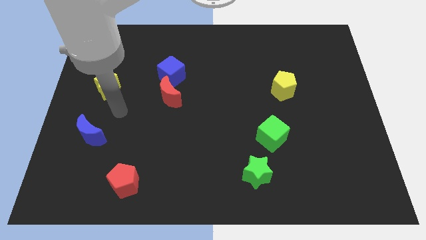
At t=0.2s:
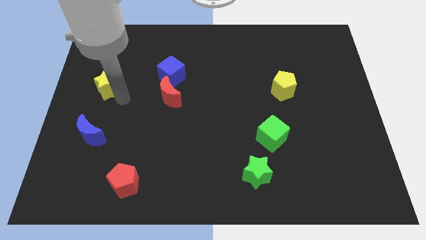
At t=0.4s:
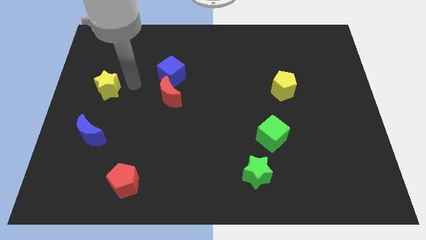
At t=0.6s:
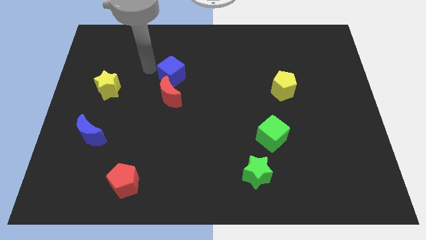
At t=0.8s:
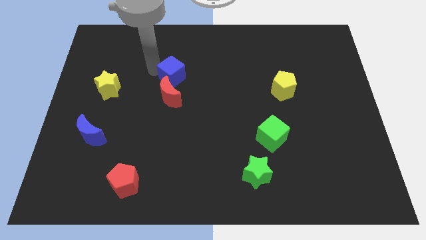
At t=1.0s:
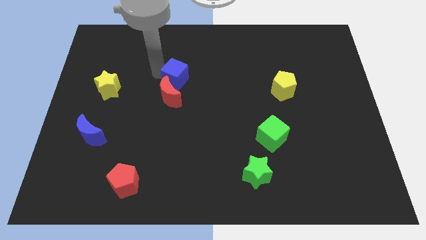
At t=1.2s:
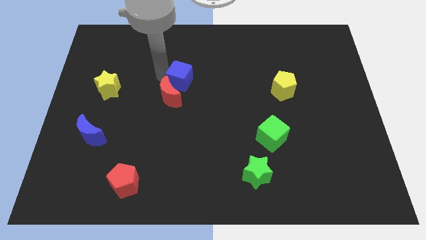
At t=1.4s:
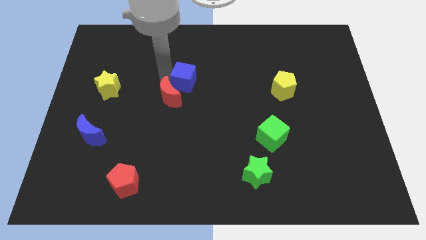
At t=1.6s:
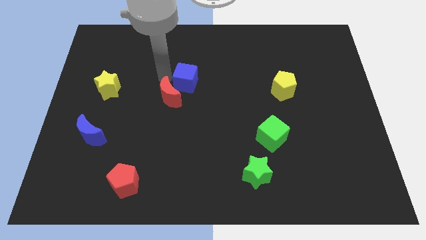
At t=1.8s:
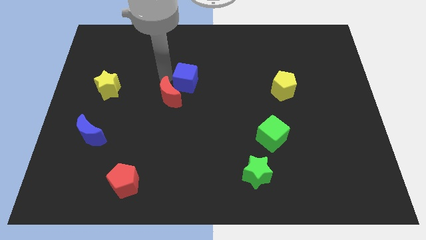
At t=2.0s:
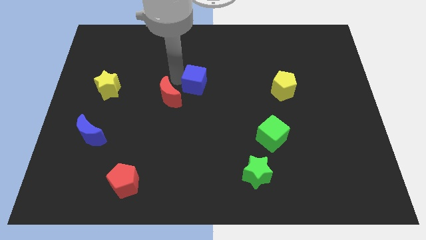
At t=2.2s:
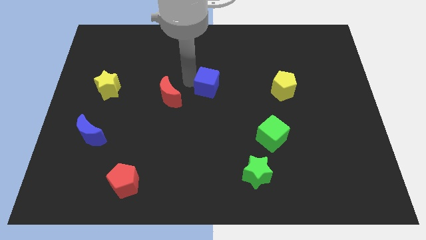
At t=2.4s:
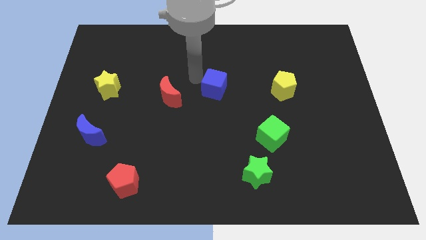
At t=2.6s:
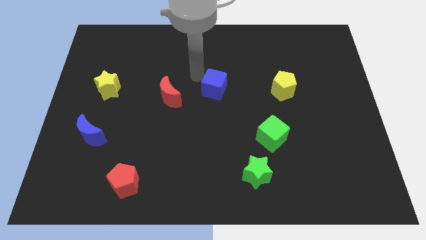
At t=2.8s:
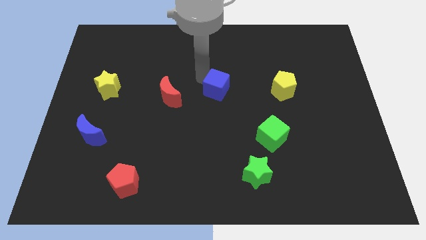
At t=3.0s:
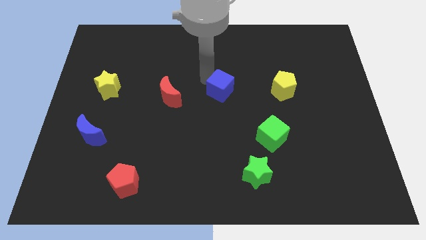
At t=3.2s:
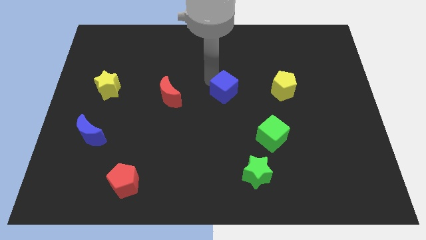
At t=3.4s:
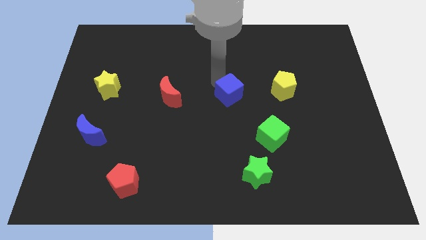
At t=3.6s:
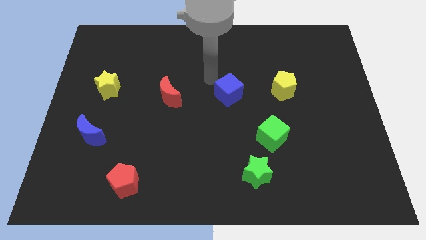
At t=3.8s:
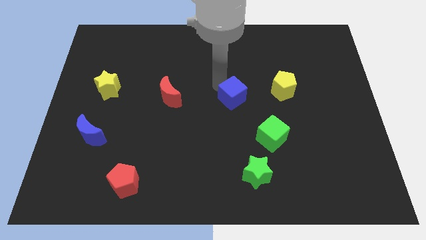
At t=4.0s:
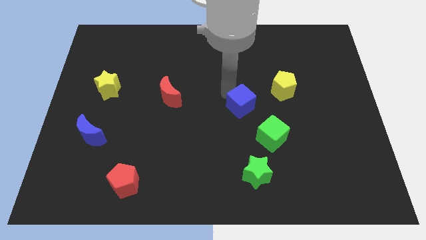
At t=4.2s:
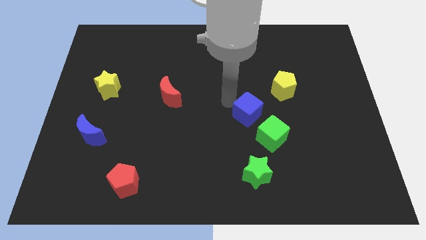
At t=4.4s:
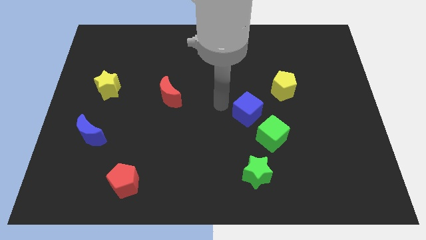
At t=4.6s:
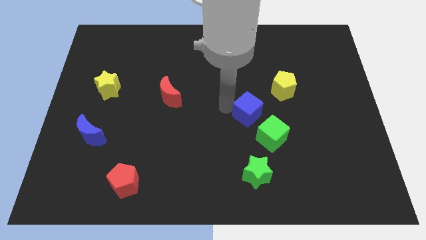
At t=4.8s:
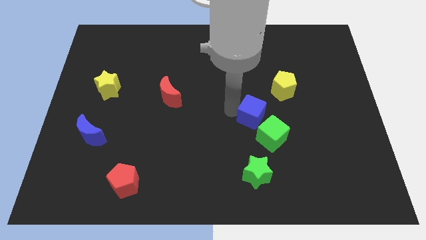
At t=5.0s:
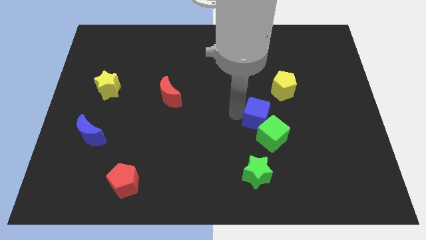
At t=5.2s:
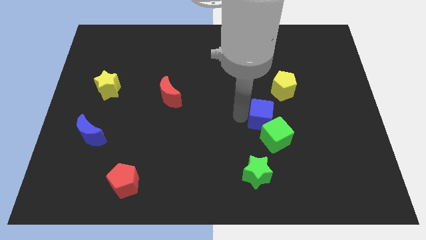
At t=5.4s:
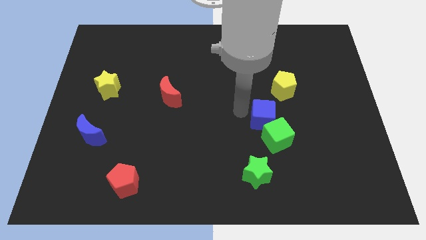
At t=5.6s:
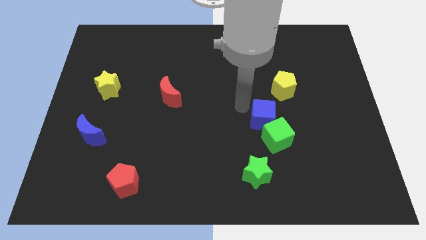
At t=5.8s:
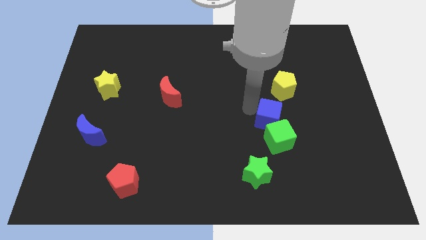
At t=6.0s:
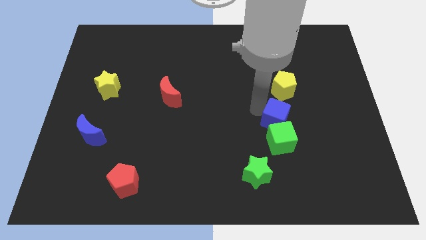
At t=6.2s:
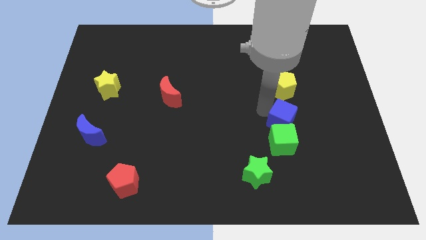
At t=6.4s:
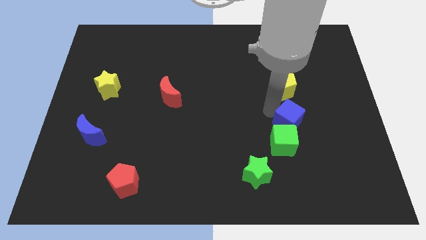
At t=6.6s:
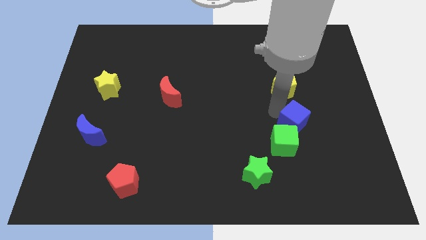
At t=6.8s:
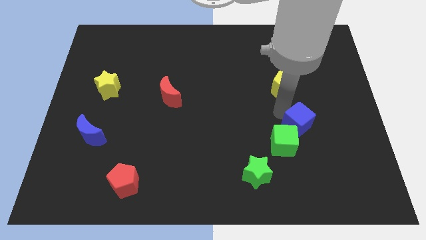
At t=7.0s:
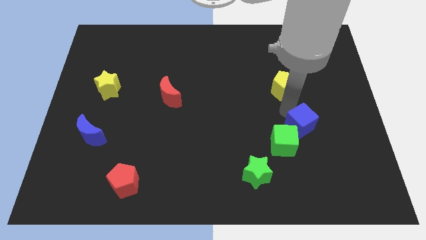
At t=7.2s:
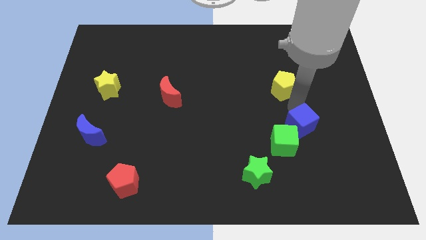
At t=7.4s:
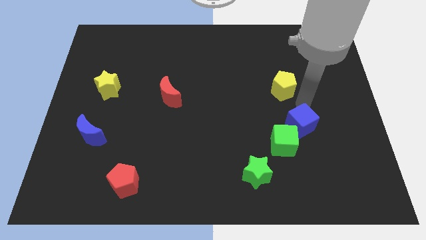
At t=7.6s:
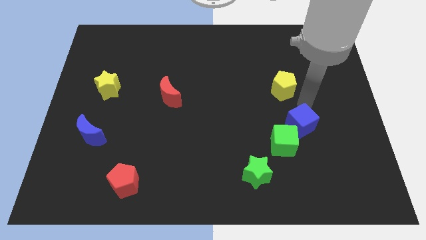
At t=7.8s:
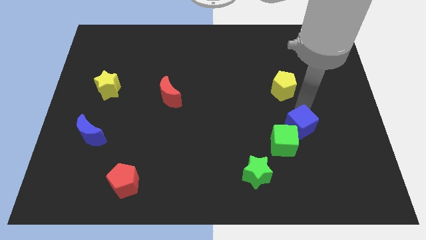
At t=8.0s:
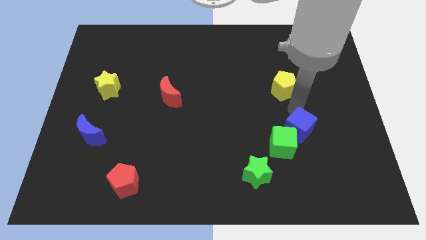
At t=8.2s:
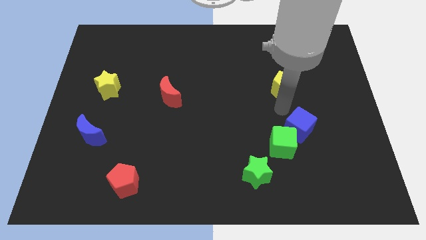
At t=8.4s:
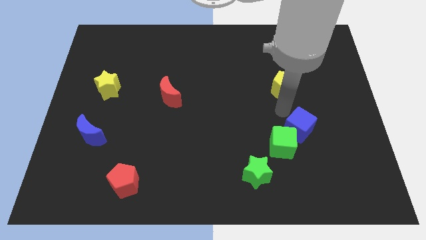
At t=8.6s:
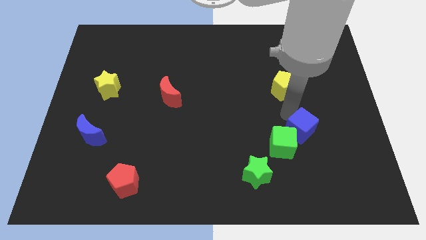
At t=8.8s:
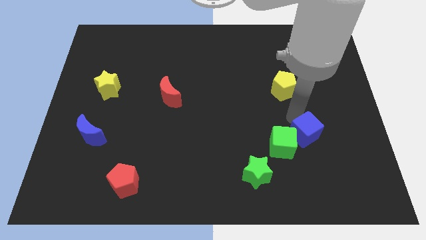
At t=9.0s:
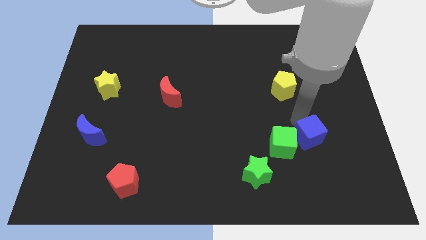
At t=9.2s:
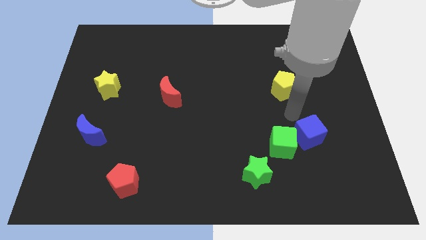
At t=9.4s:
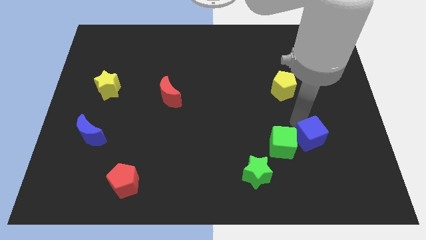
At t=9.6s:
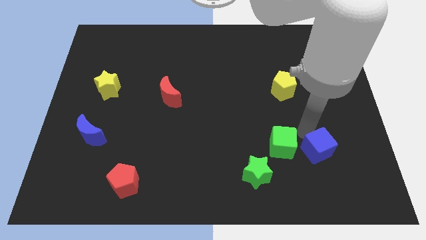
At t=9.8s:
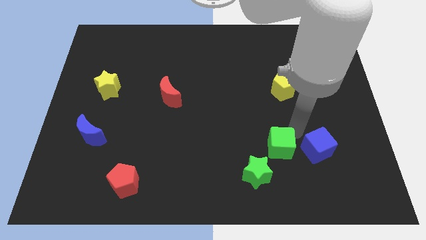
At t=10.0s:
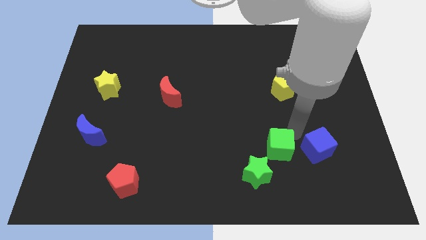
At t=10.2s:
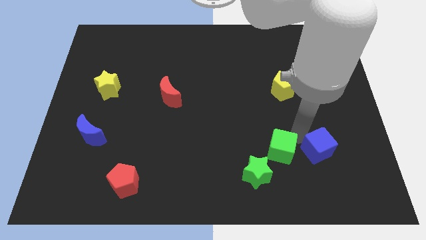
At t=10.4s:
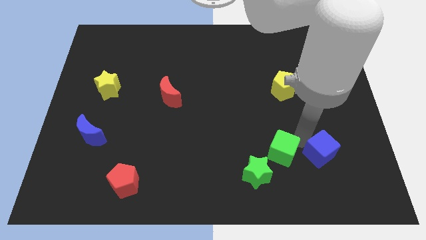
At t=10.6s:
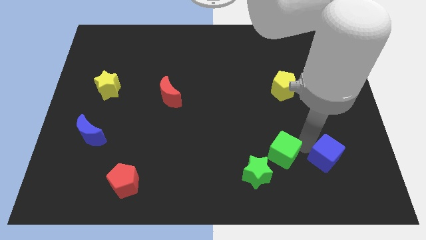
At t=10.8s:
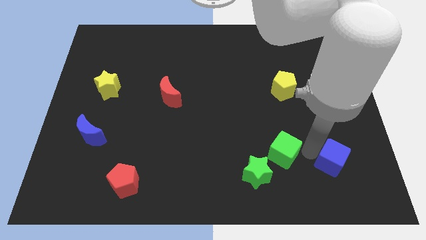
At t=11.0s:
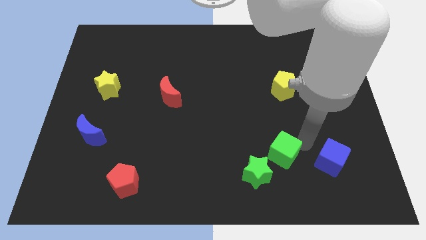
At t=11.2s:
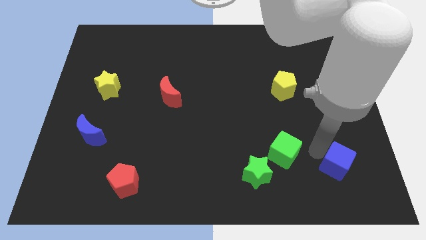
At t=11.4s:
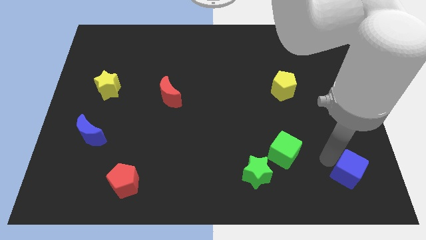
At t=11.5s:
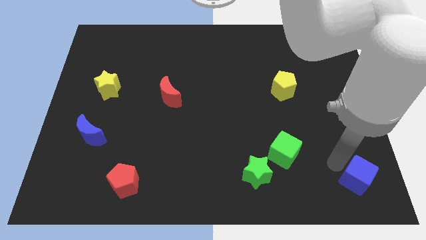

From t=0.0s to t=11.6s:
push the blue cube to the bottom right of the board
